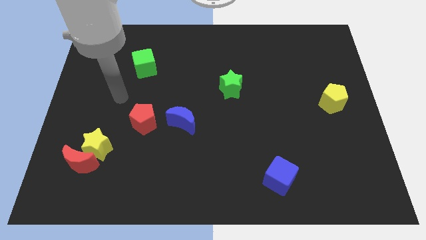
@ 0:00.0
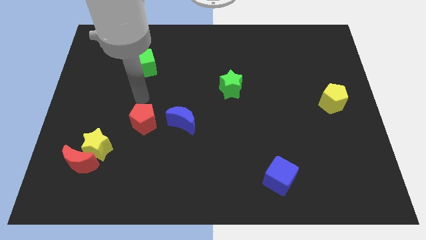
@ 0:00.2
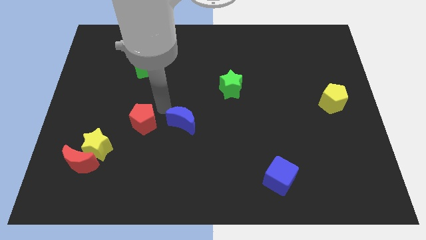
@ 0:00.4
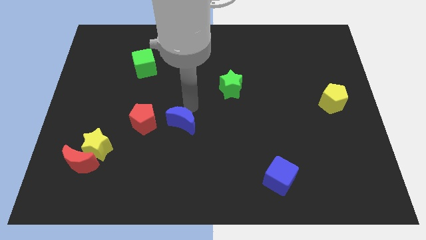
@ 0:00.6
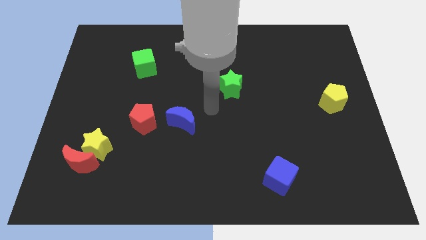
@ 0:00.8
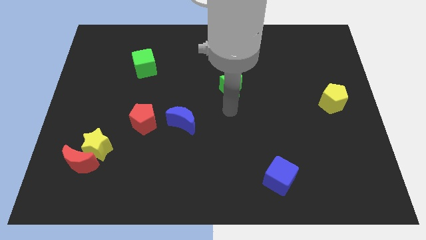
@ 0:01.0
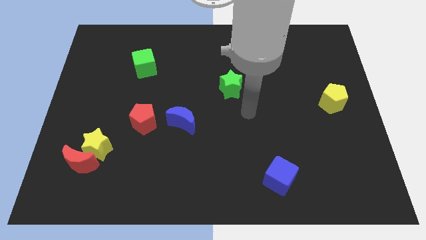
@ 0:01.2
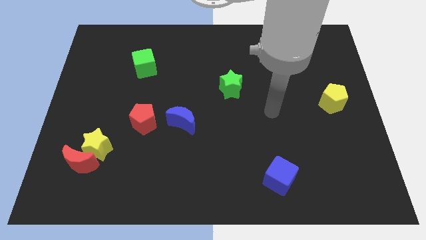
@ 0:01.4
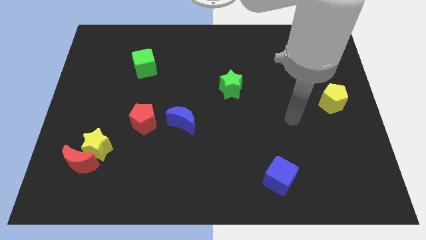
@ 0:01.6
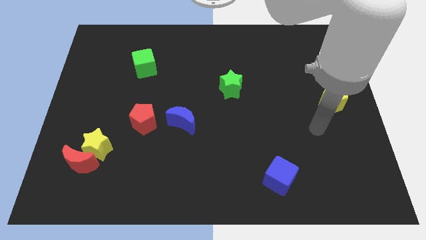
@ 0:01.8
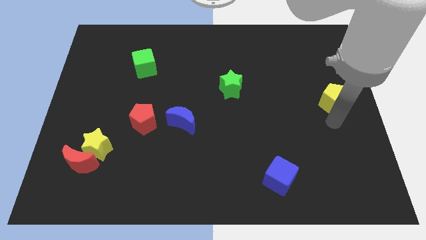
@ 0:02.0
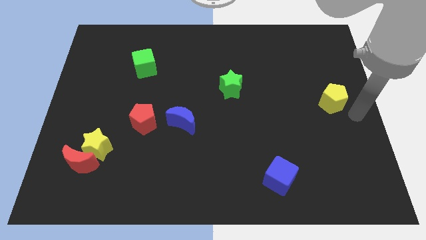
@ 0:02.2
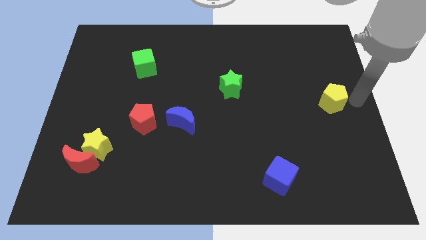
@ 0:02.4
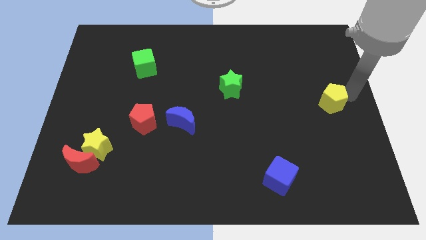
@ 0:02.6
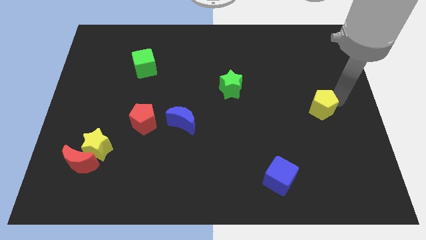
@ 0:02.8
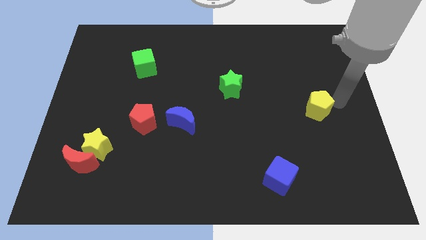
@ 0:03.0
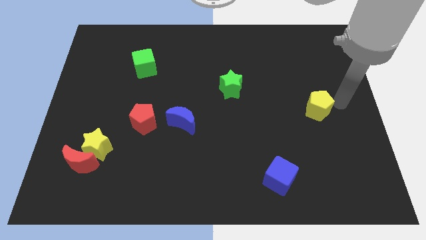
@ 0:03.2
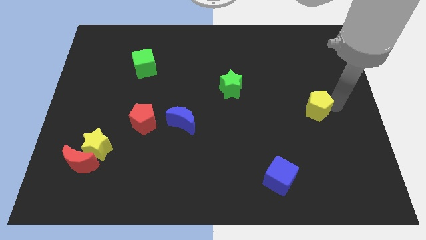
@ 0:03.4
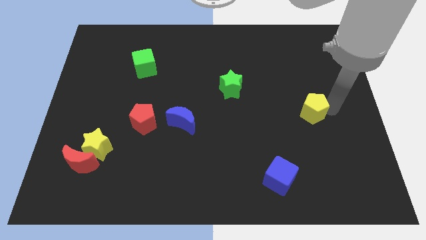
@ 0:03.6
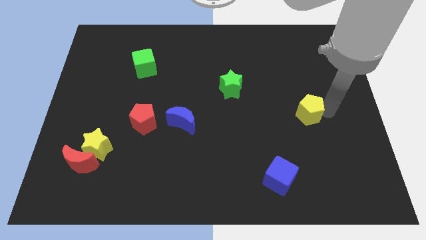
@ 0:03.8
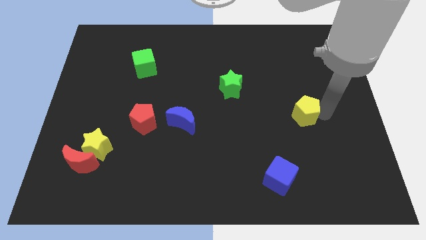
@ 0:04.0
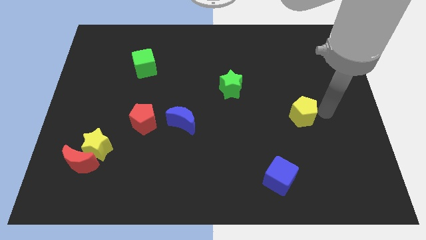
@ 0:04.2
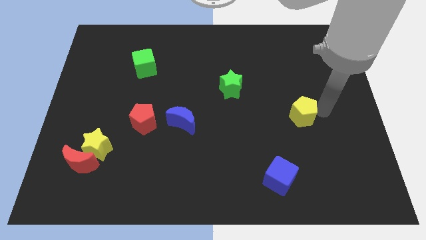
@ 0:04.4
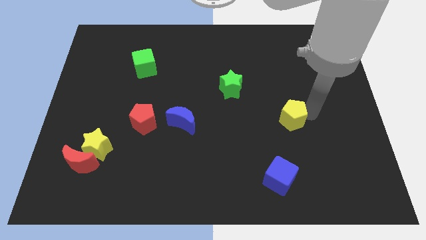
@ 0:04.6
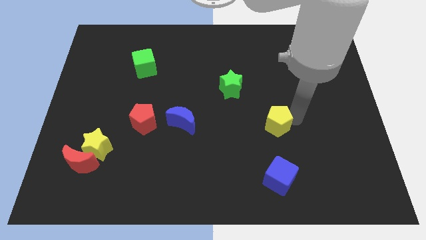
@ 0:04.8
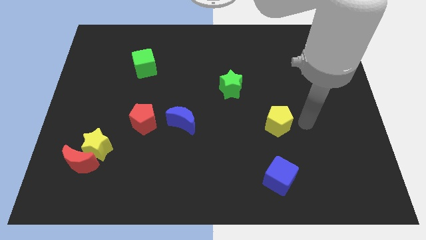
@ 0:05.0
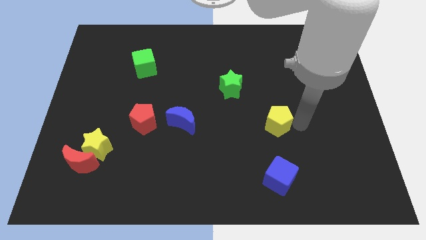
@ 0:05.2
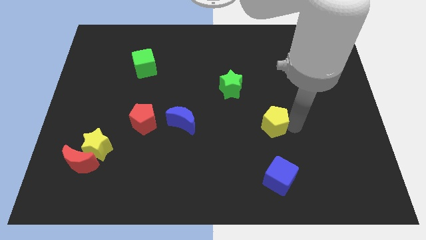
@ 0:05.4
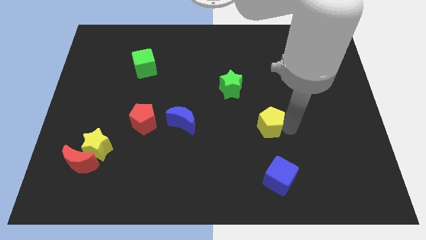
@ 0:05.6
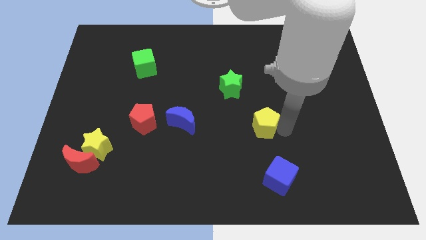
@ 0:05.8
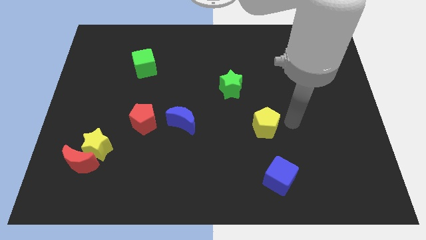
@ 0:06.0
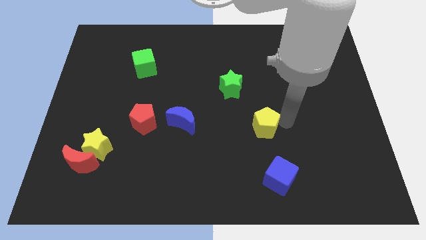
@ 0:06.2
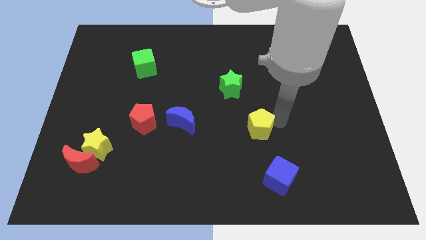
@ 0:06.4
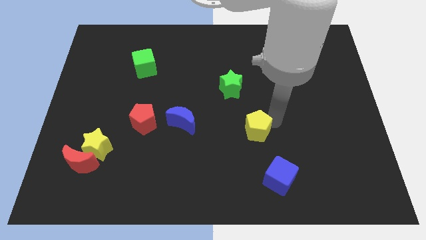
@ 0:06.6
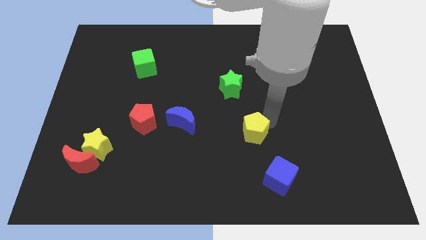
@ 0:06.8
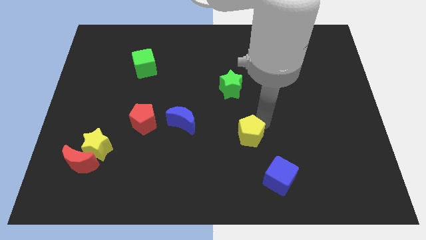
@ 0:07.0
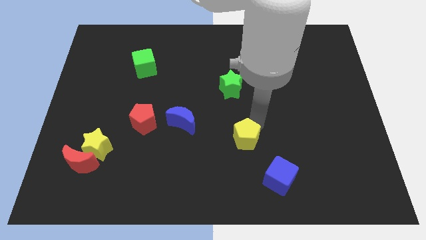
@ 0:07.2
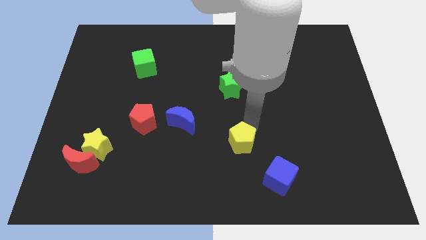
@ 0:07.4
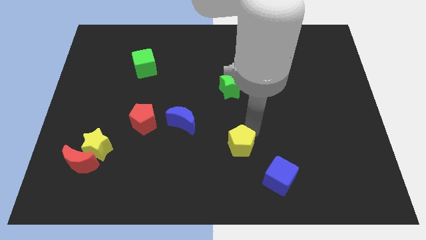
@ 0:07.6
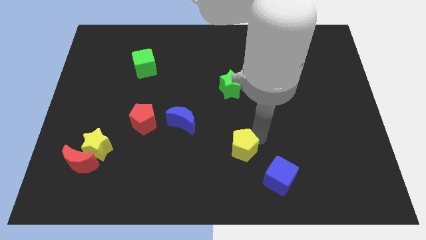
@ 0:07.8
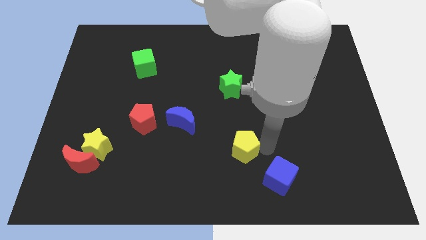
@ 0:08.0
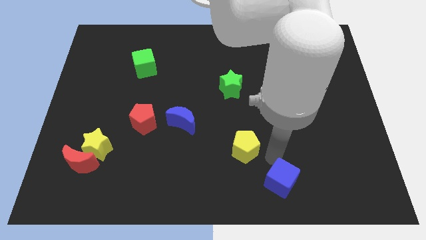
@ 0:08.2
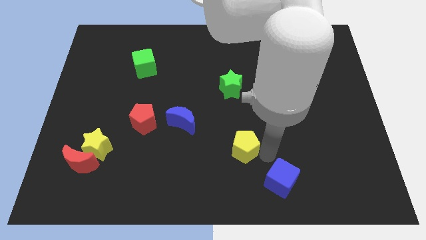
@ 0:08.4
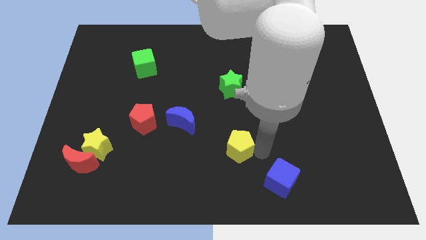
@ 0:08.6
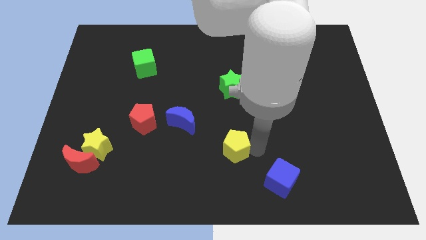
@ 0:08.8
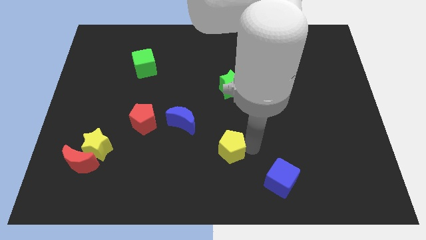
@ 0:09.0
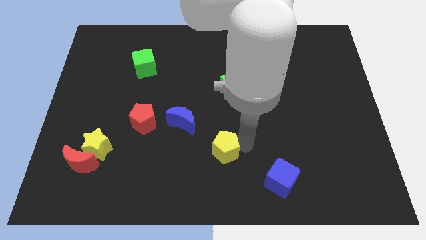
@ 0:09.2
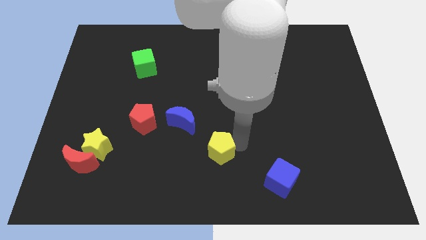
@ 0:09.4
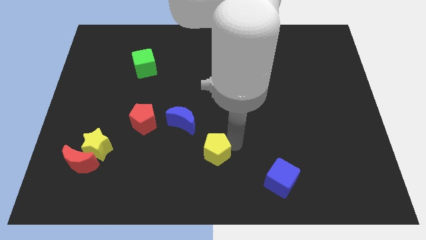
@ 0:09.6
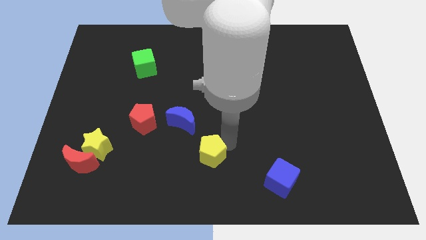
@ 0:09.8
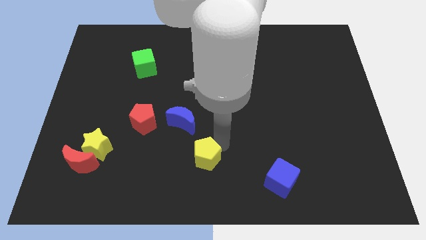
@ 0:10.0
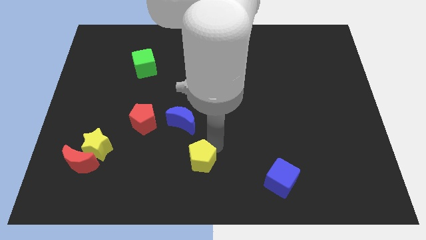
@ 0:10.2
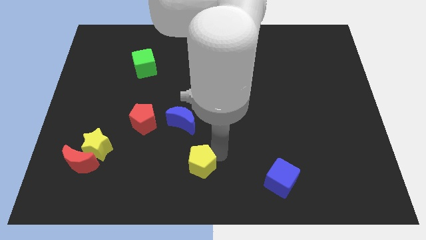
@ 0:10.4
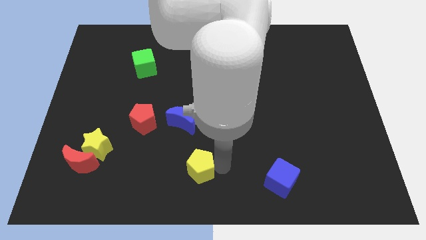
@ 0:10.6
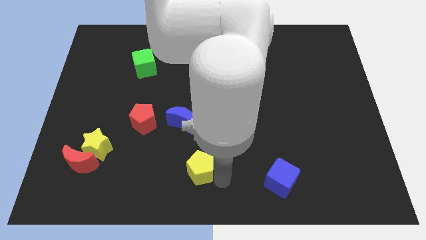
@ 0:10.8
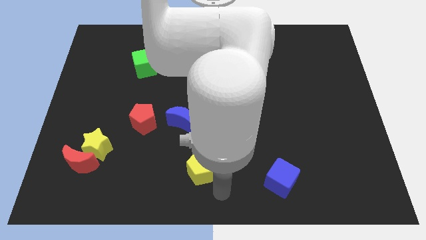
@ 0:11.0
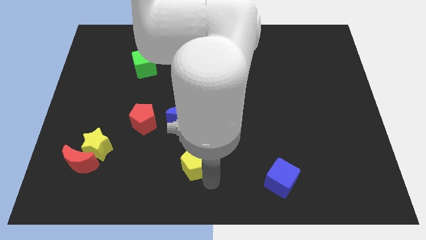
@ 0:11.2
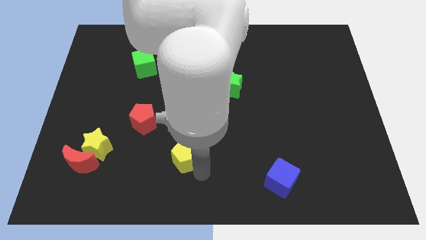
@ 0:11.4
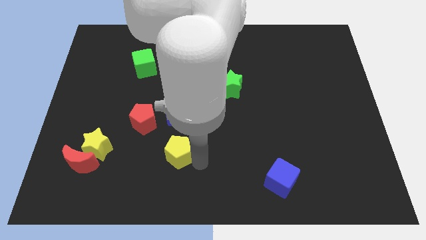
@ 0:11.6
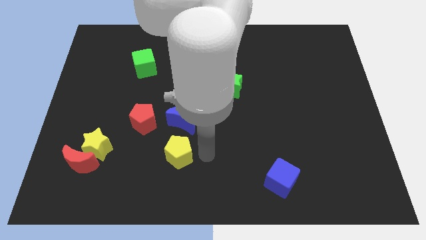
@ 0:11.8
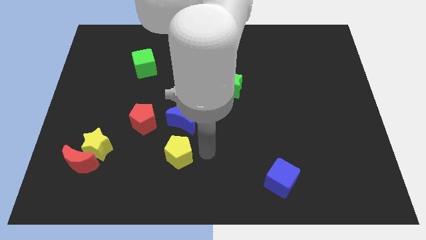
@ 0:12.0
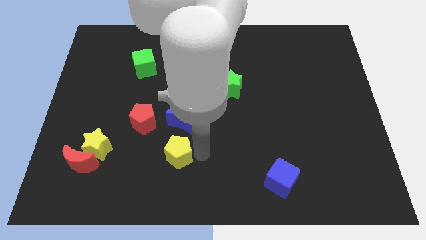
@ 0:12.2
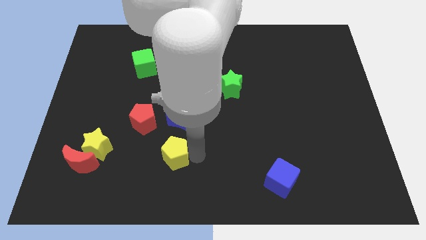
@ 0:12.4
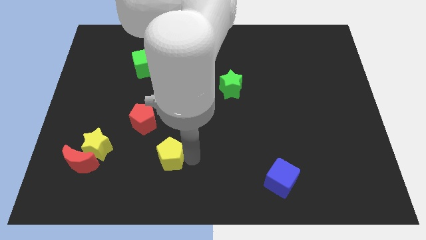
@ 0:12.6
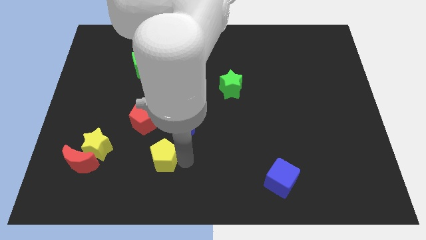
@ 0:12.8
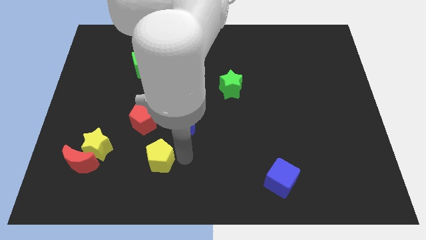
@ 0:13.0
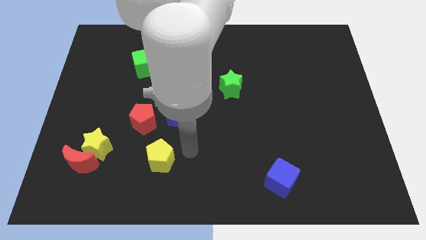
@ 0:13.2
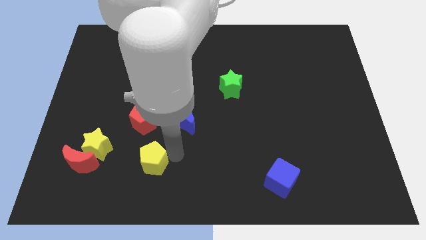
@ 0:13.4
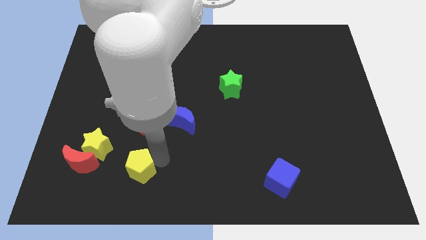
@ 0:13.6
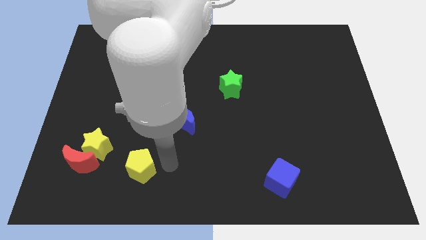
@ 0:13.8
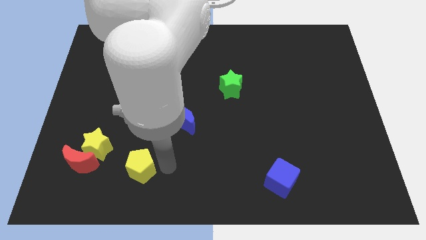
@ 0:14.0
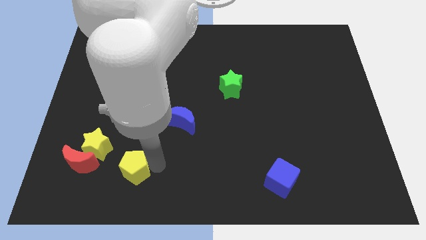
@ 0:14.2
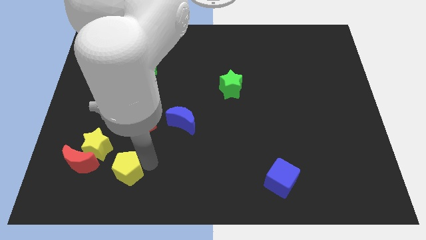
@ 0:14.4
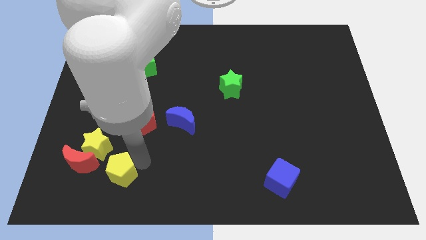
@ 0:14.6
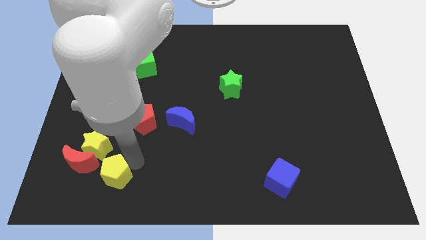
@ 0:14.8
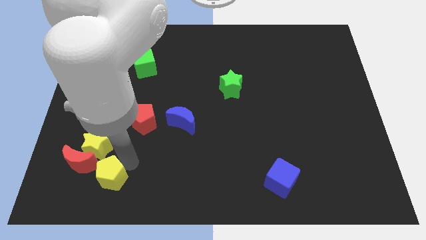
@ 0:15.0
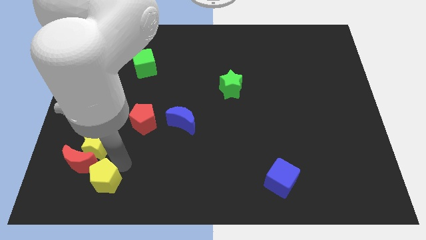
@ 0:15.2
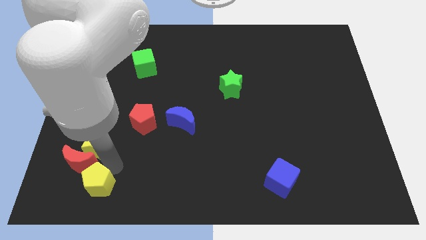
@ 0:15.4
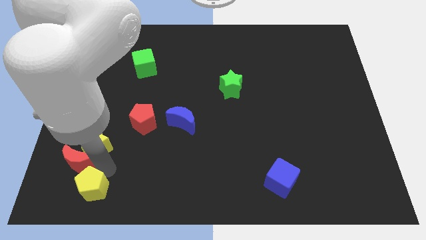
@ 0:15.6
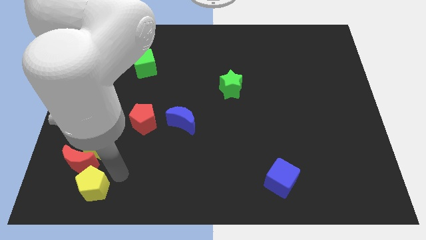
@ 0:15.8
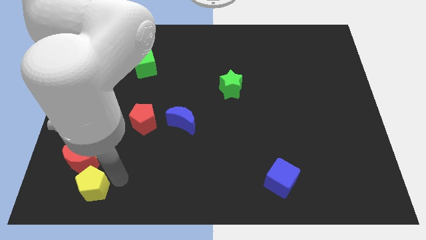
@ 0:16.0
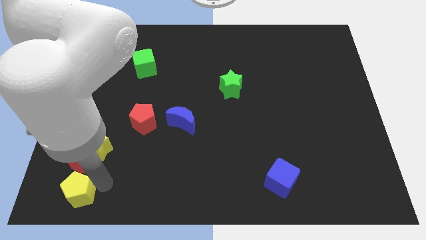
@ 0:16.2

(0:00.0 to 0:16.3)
push the yellow pentagon to the bottom left
